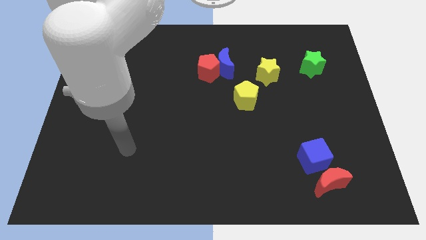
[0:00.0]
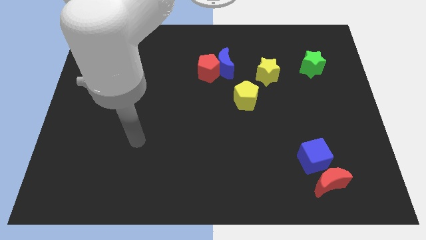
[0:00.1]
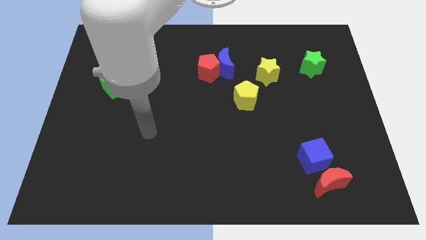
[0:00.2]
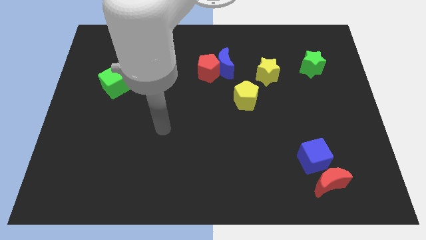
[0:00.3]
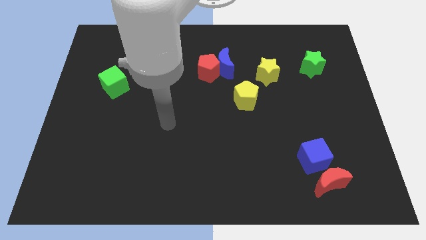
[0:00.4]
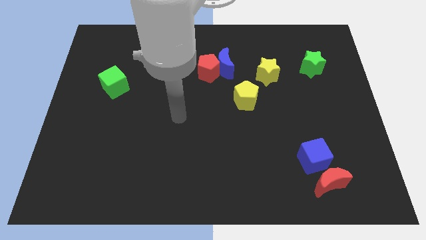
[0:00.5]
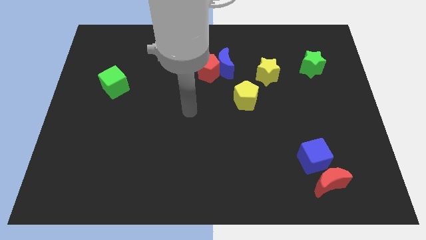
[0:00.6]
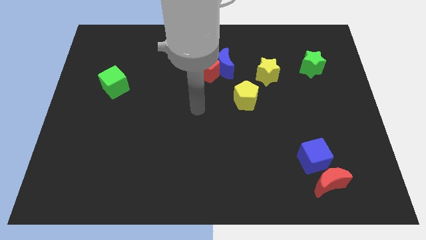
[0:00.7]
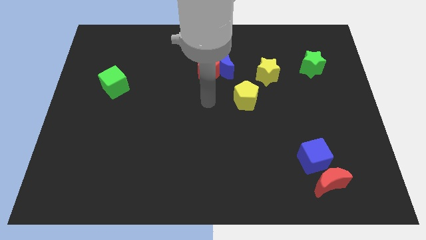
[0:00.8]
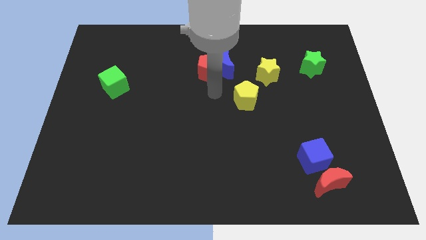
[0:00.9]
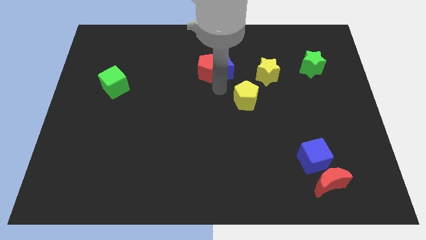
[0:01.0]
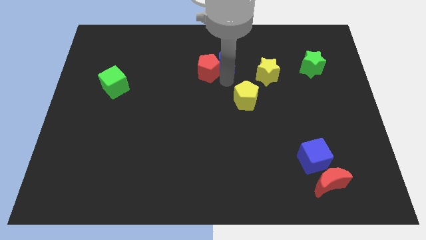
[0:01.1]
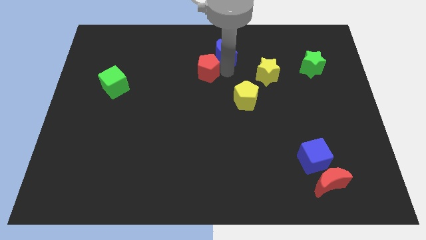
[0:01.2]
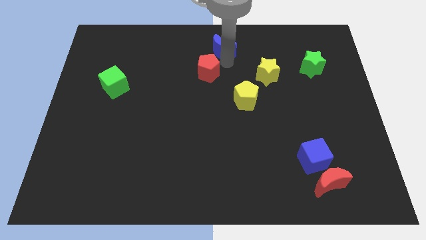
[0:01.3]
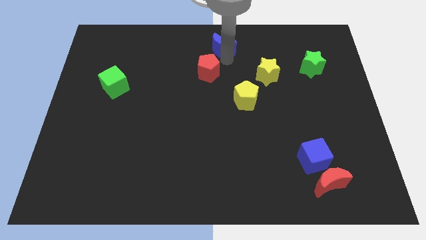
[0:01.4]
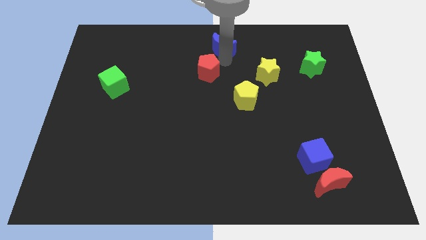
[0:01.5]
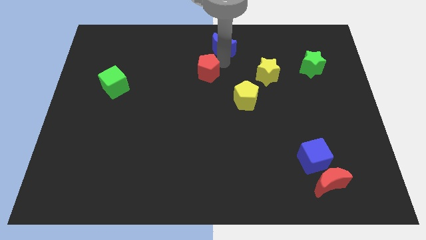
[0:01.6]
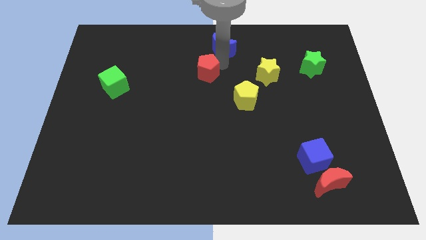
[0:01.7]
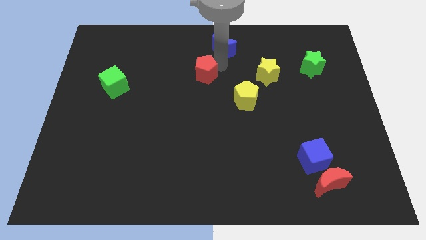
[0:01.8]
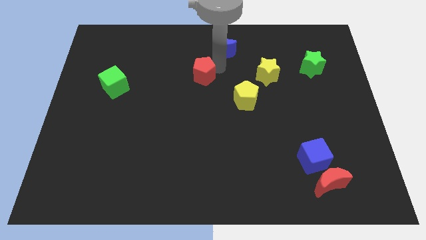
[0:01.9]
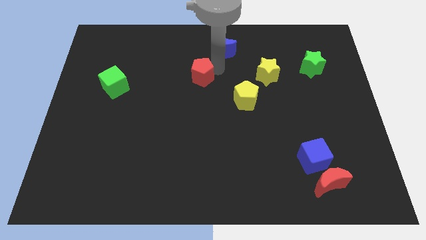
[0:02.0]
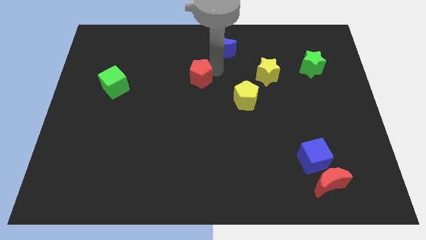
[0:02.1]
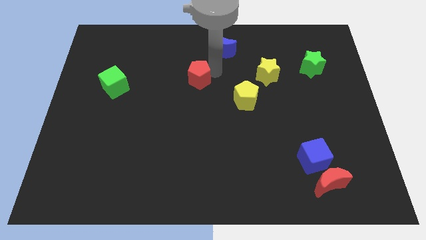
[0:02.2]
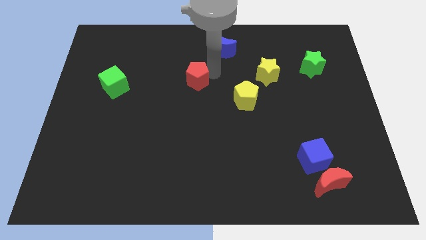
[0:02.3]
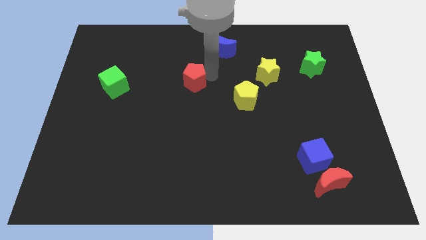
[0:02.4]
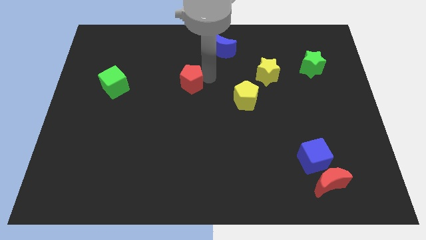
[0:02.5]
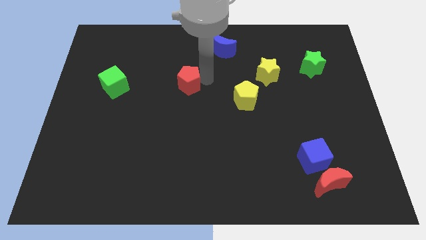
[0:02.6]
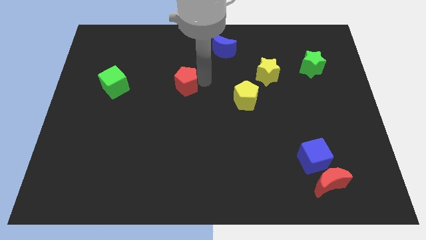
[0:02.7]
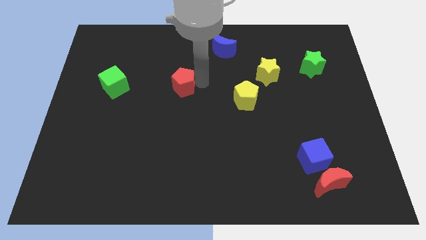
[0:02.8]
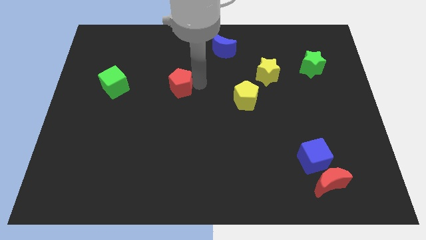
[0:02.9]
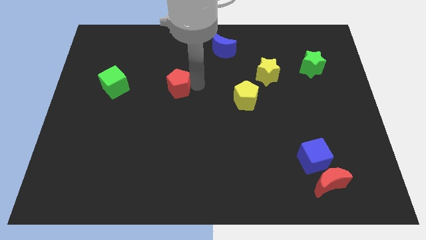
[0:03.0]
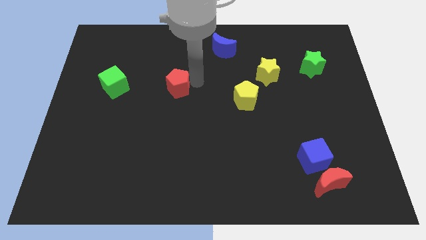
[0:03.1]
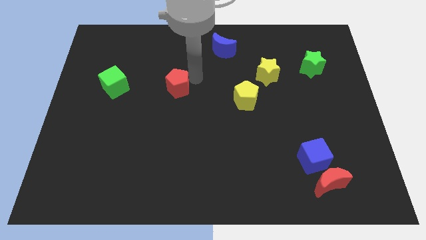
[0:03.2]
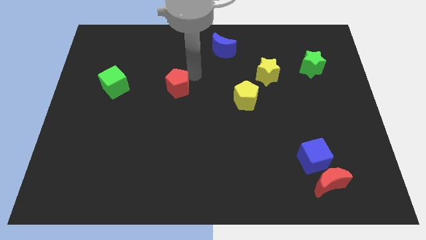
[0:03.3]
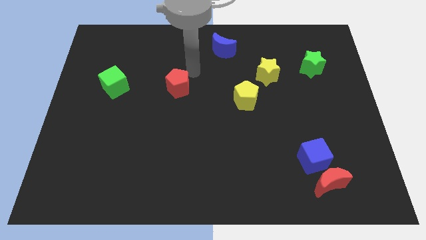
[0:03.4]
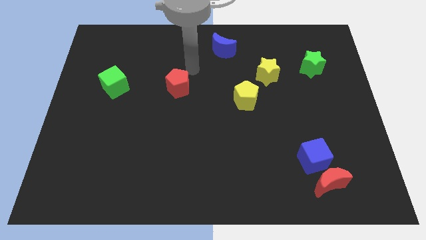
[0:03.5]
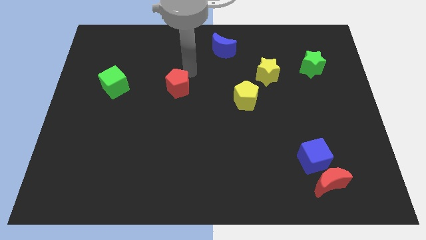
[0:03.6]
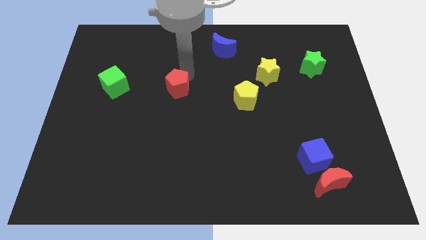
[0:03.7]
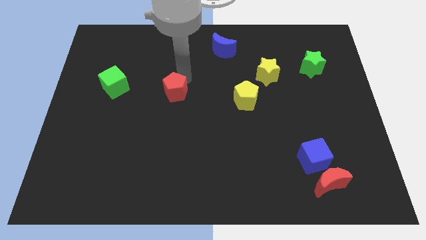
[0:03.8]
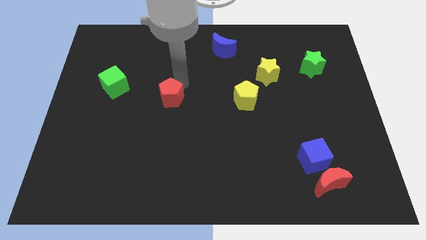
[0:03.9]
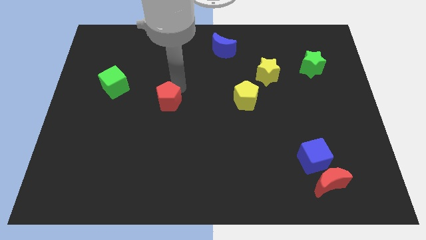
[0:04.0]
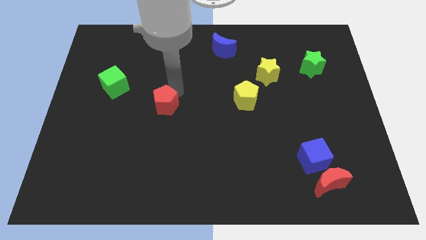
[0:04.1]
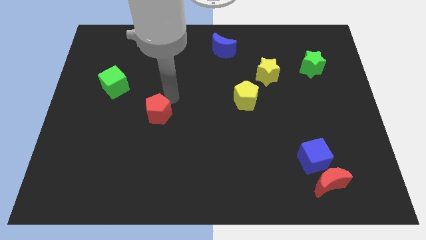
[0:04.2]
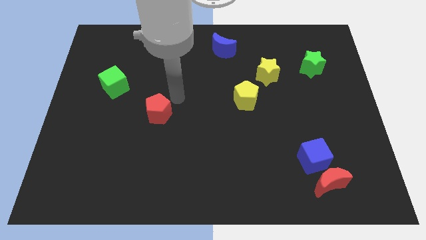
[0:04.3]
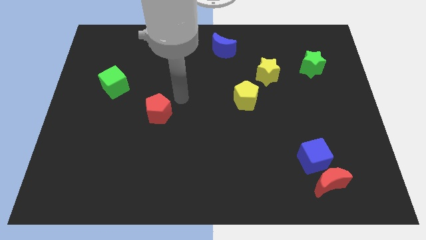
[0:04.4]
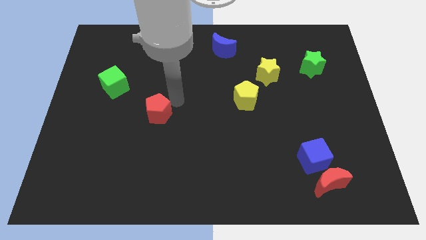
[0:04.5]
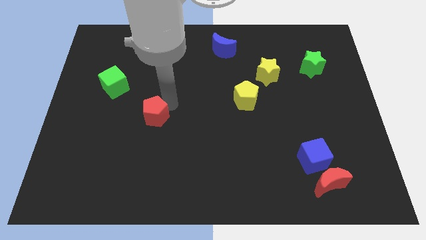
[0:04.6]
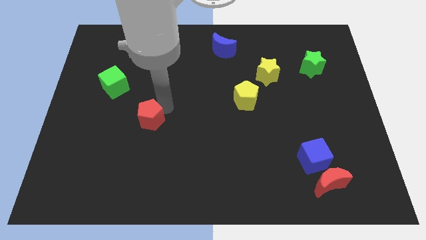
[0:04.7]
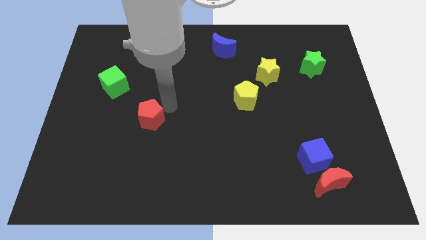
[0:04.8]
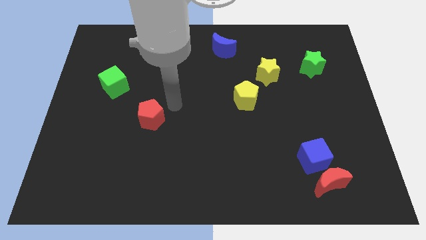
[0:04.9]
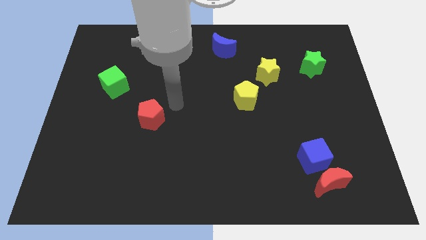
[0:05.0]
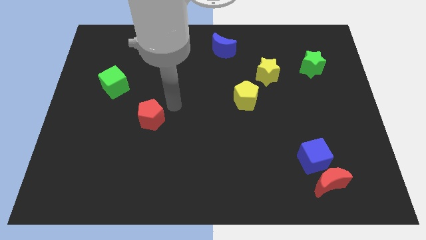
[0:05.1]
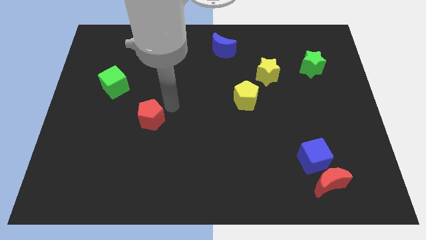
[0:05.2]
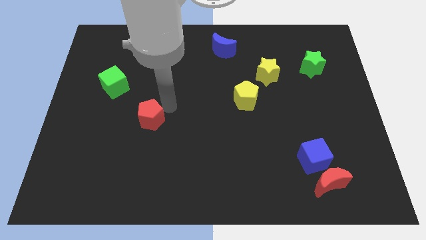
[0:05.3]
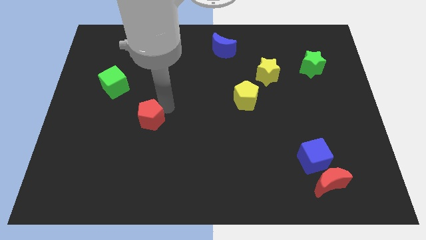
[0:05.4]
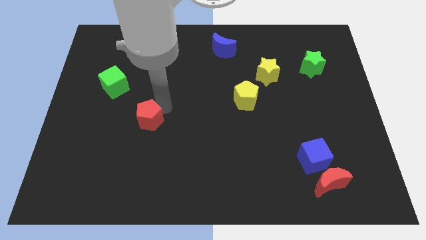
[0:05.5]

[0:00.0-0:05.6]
push the red pentagon diagonally down and to the left

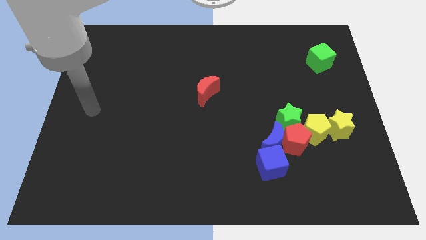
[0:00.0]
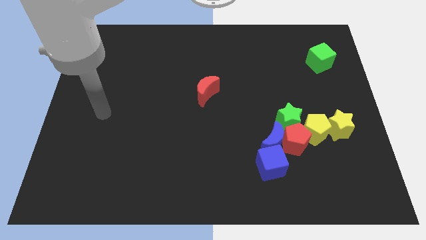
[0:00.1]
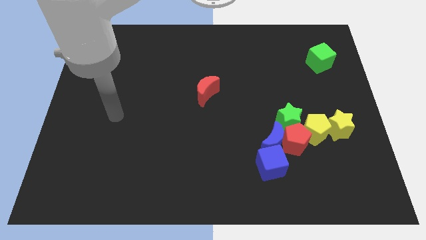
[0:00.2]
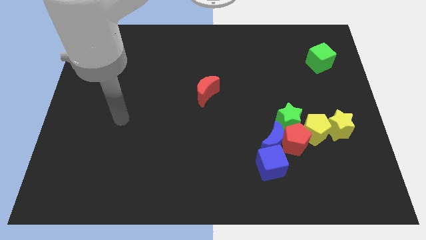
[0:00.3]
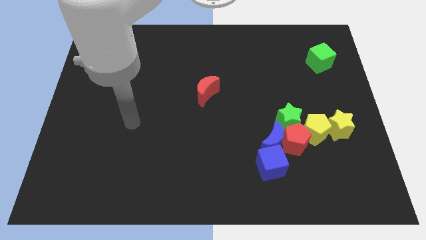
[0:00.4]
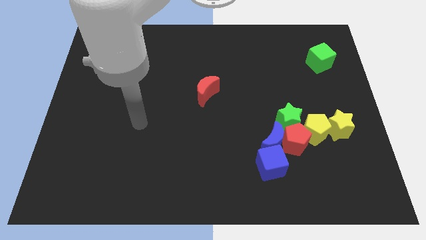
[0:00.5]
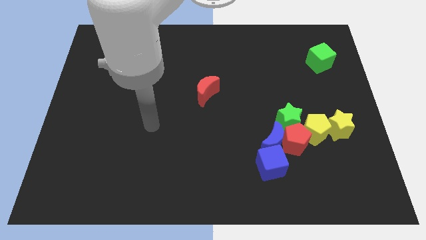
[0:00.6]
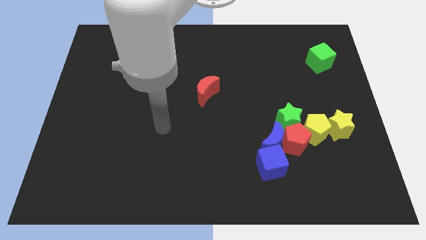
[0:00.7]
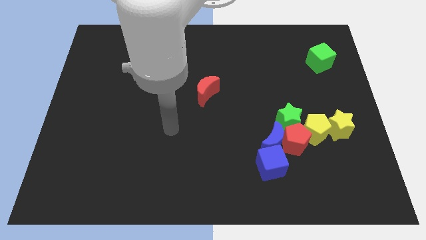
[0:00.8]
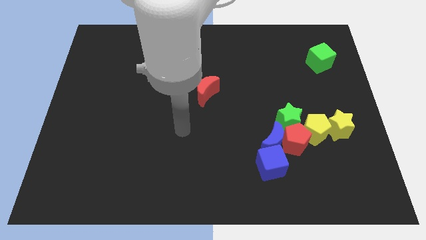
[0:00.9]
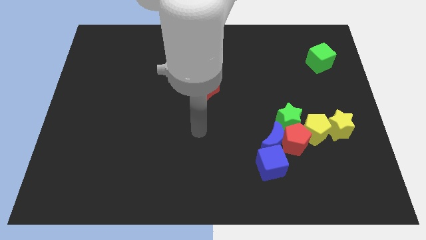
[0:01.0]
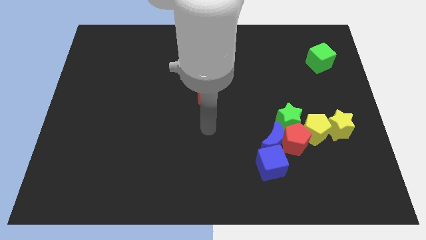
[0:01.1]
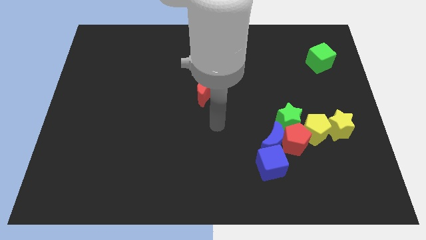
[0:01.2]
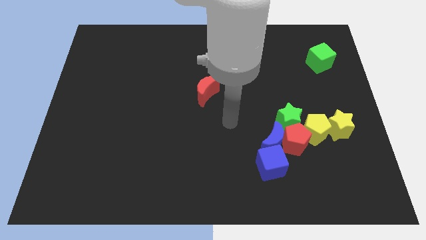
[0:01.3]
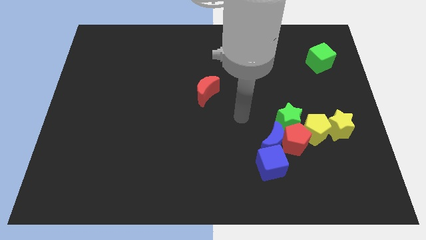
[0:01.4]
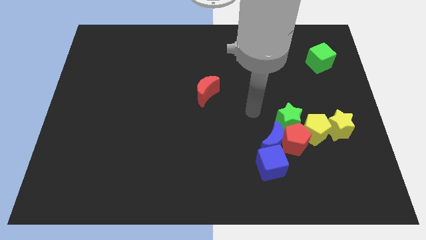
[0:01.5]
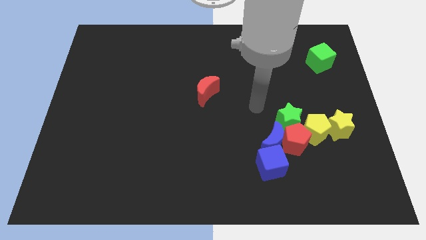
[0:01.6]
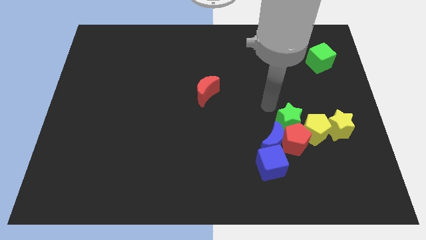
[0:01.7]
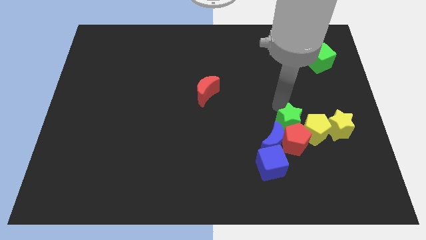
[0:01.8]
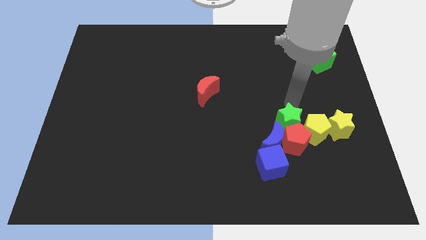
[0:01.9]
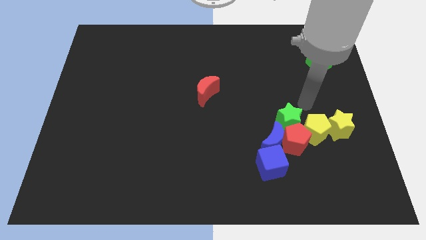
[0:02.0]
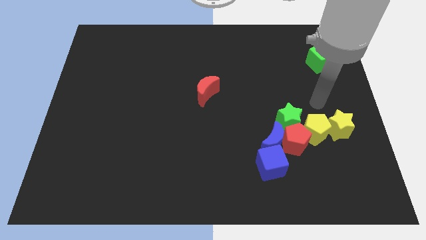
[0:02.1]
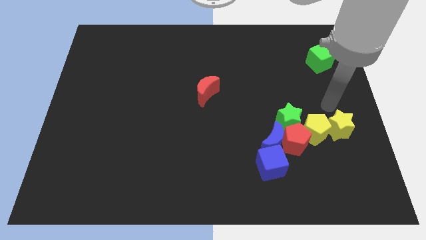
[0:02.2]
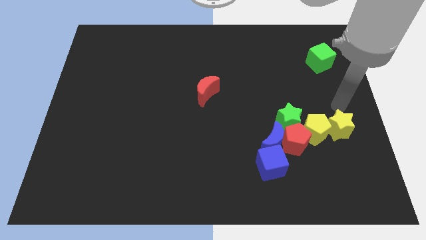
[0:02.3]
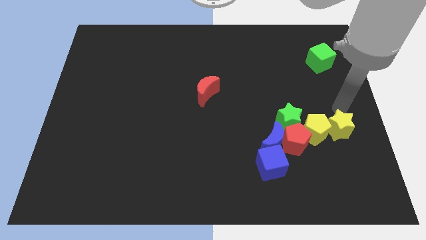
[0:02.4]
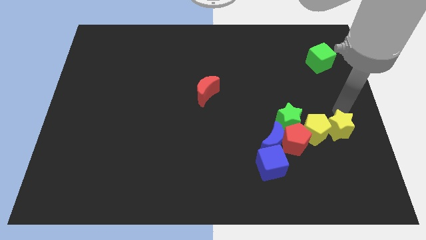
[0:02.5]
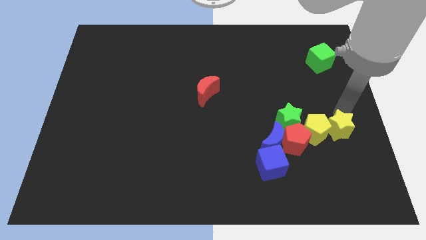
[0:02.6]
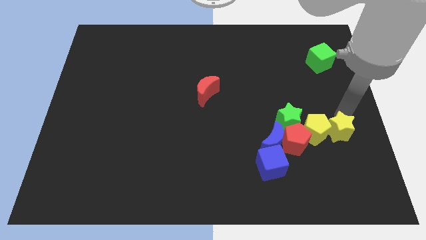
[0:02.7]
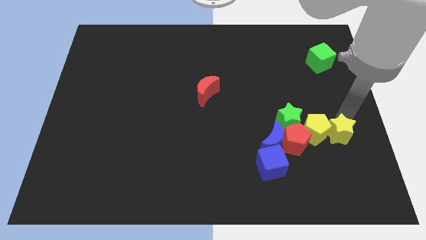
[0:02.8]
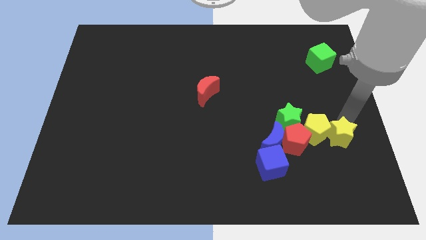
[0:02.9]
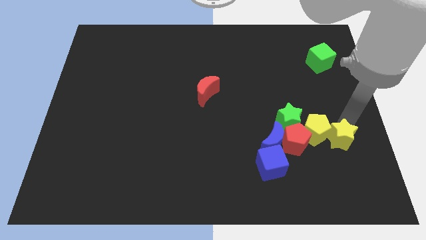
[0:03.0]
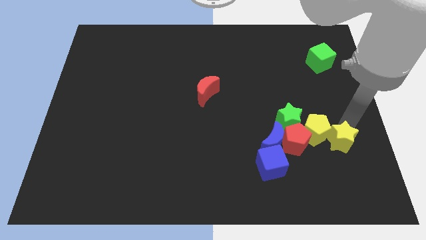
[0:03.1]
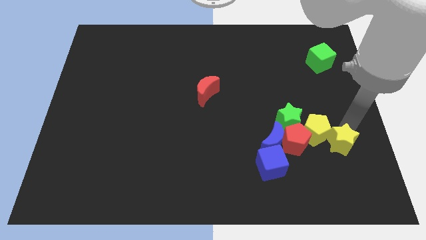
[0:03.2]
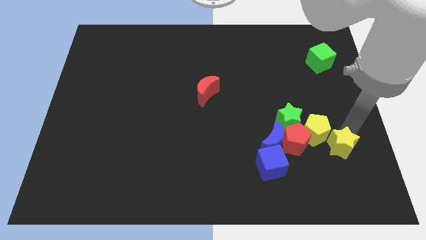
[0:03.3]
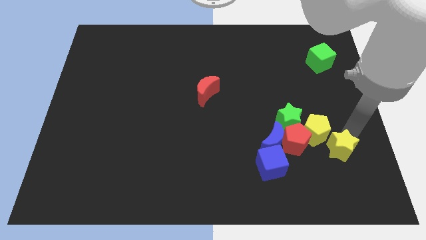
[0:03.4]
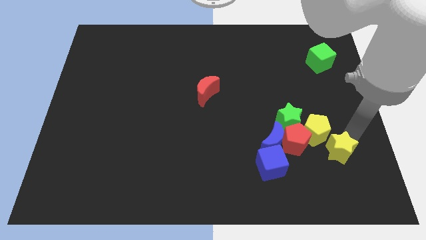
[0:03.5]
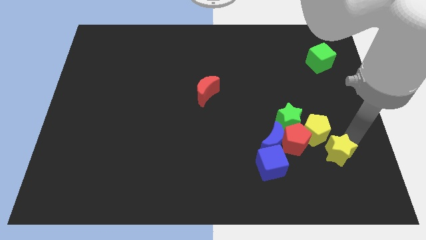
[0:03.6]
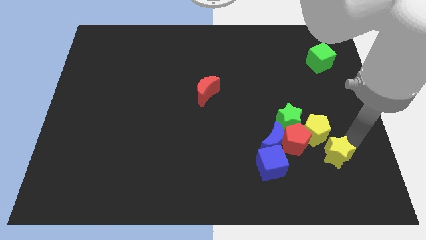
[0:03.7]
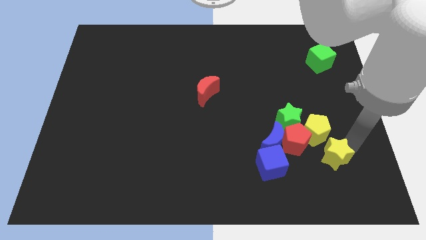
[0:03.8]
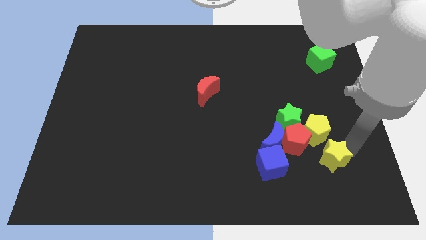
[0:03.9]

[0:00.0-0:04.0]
push the yellow star downwards and to the left diagonally a little bit
